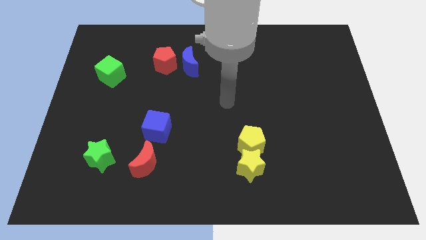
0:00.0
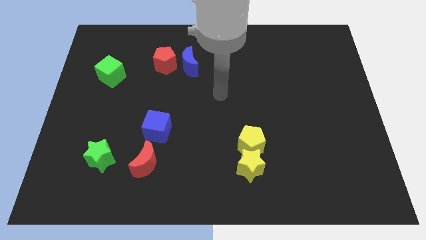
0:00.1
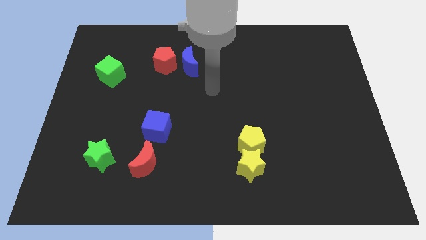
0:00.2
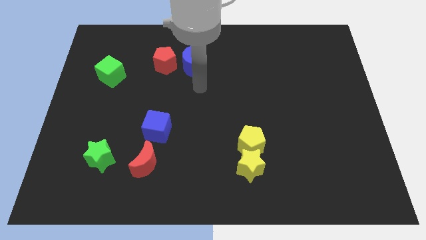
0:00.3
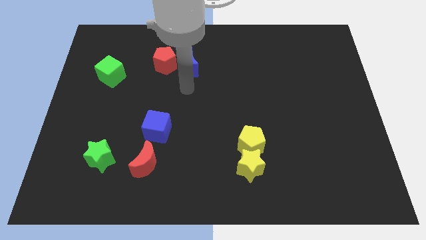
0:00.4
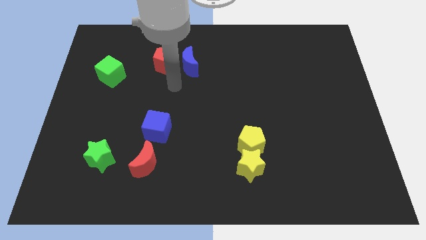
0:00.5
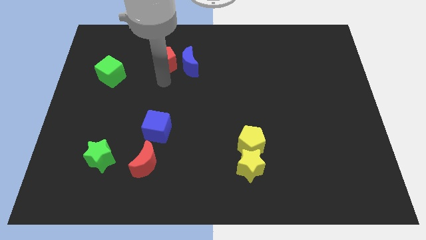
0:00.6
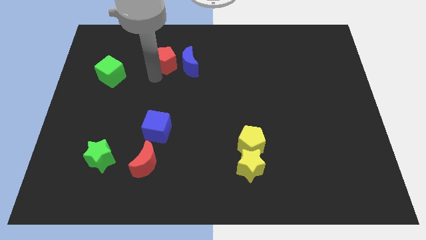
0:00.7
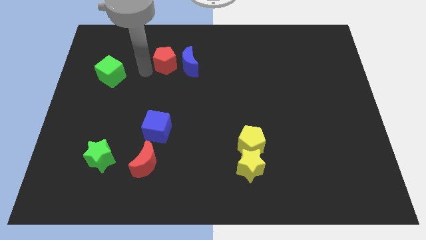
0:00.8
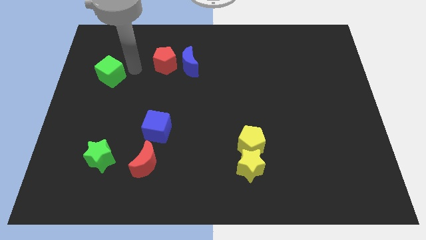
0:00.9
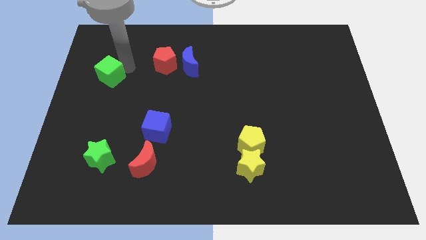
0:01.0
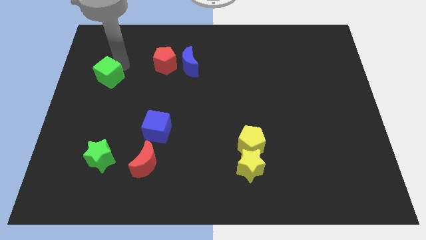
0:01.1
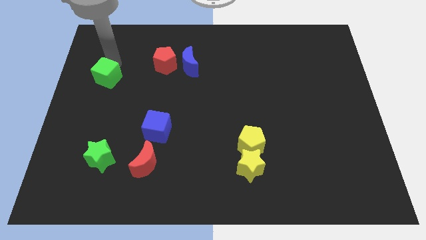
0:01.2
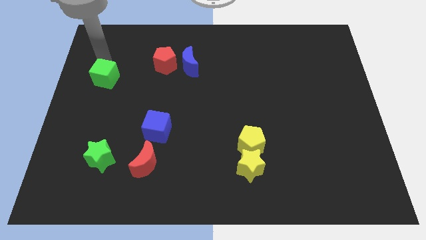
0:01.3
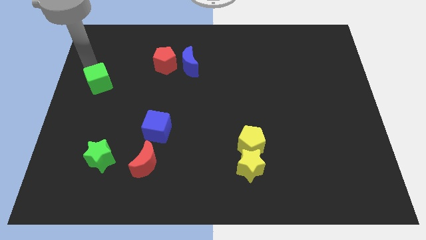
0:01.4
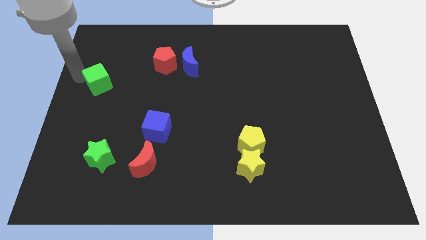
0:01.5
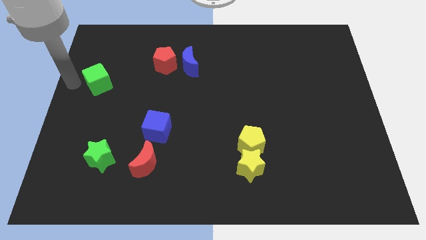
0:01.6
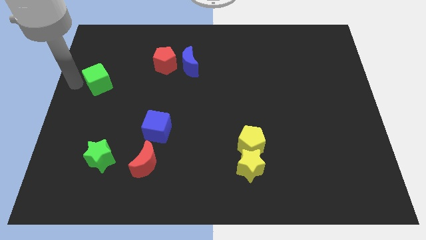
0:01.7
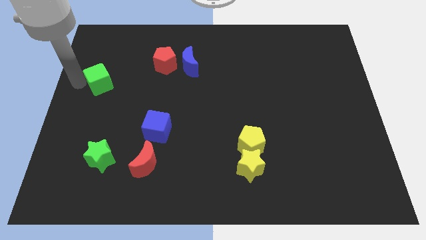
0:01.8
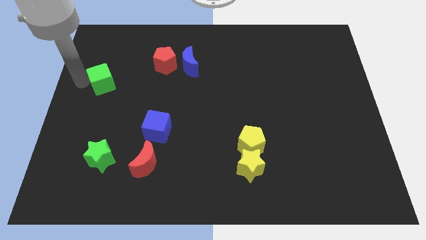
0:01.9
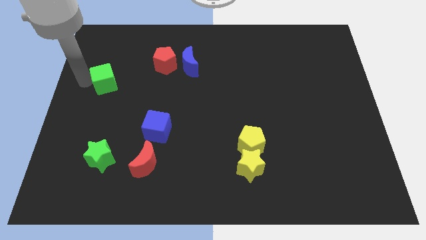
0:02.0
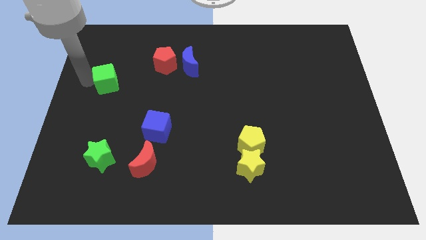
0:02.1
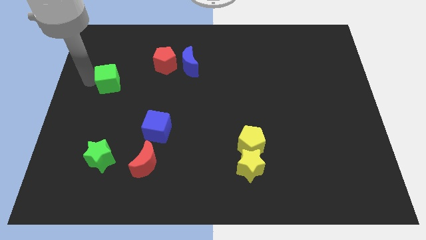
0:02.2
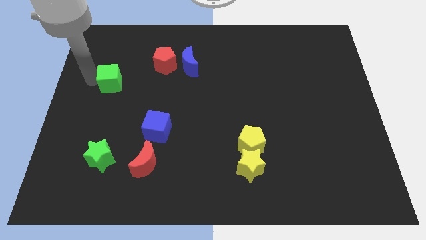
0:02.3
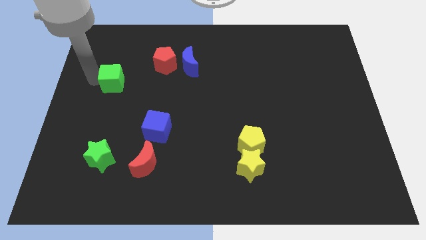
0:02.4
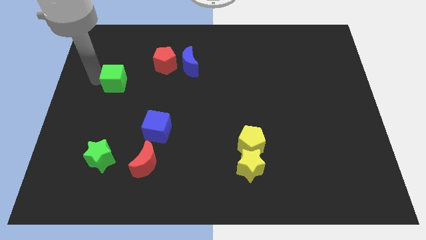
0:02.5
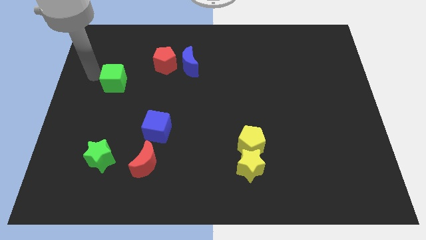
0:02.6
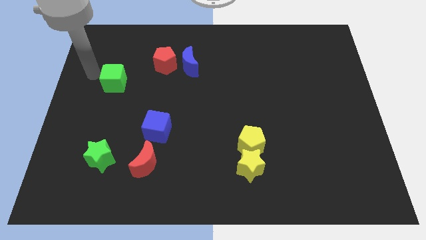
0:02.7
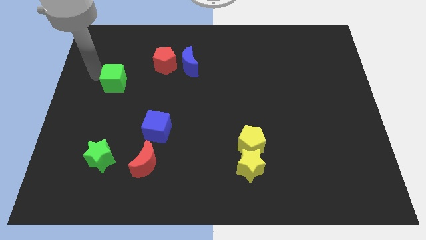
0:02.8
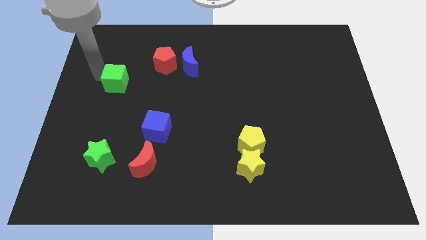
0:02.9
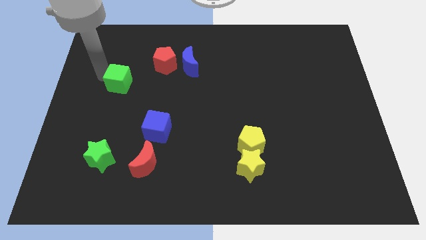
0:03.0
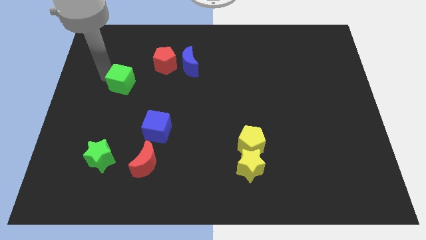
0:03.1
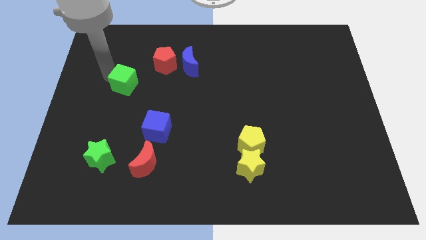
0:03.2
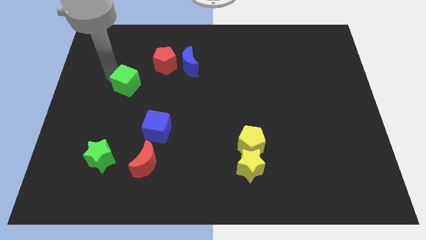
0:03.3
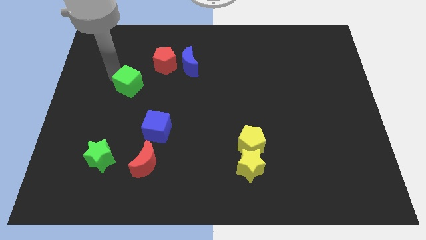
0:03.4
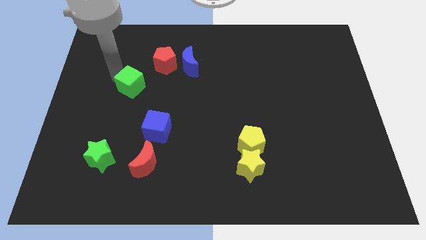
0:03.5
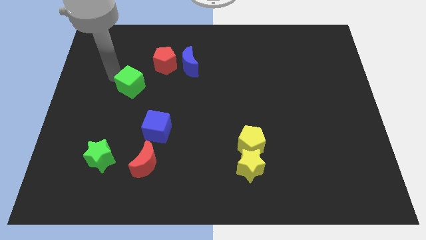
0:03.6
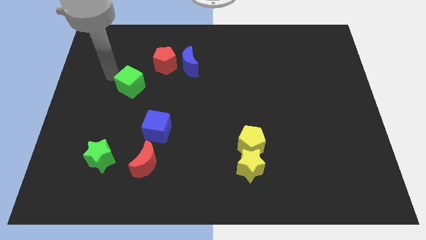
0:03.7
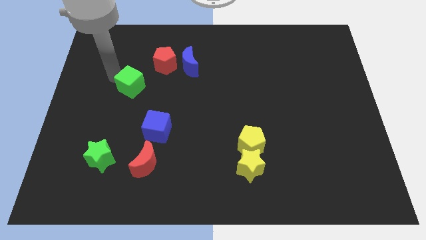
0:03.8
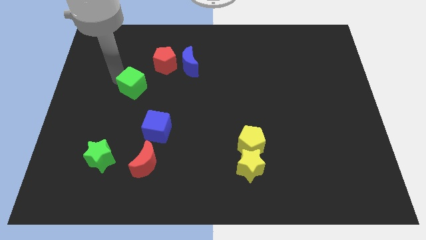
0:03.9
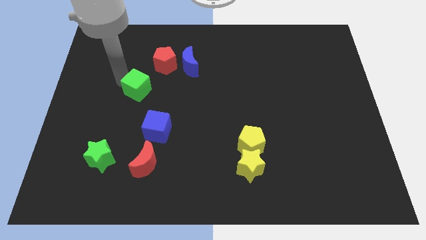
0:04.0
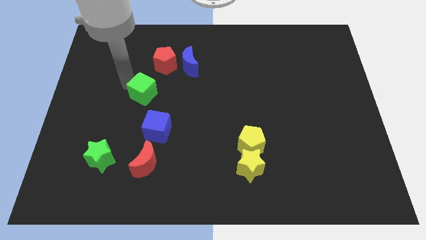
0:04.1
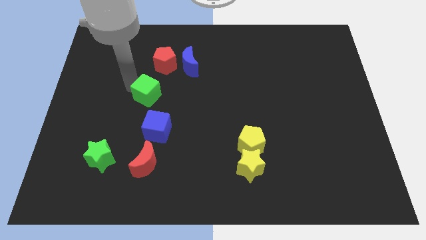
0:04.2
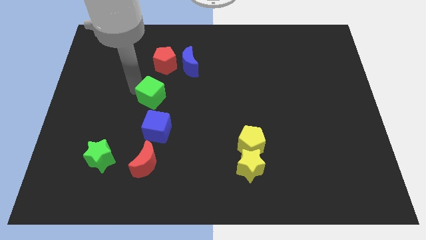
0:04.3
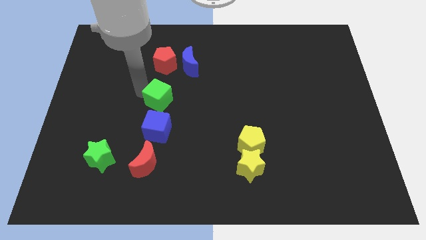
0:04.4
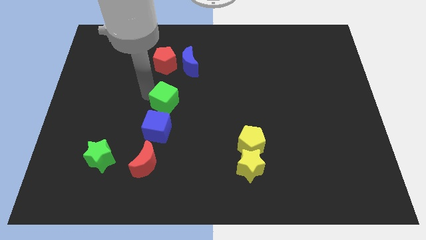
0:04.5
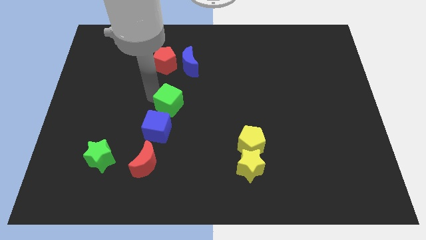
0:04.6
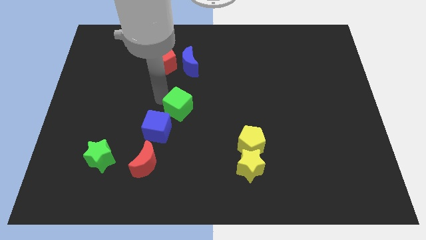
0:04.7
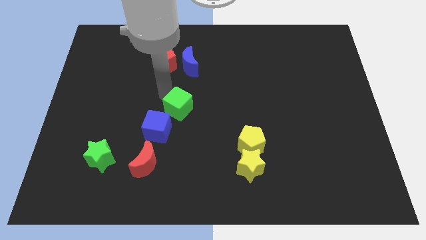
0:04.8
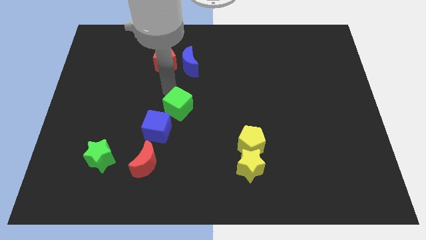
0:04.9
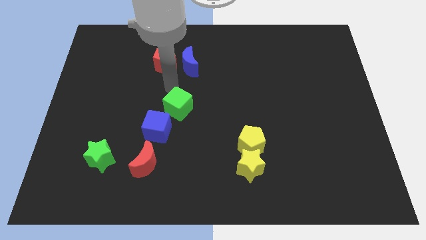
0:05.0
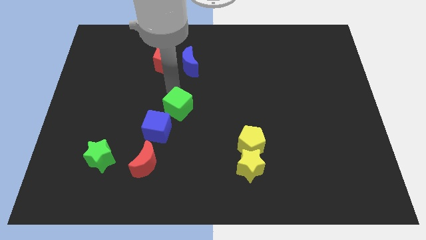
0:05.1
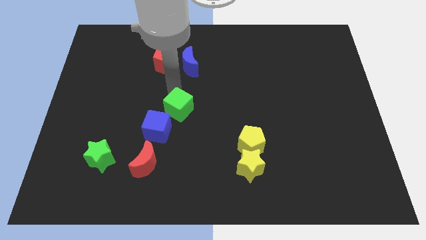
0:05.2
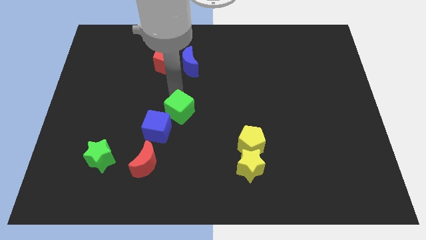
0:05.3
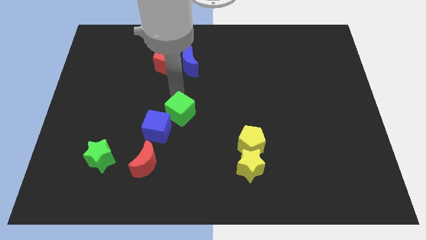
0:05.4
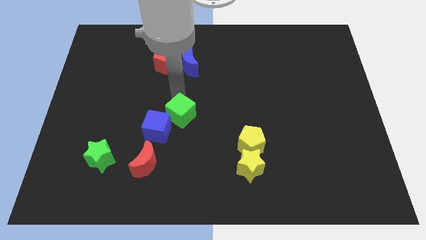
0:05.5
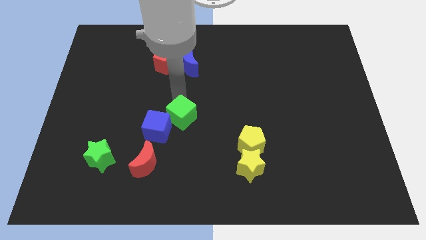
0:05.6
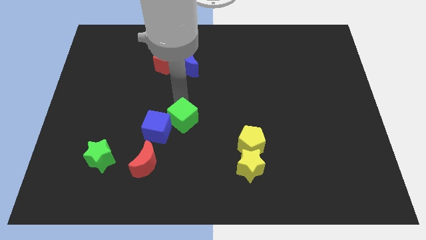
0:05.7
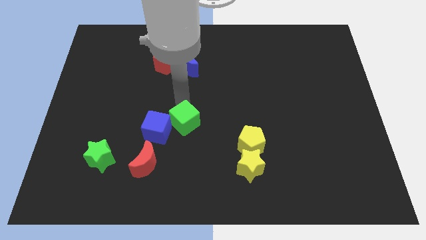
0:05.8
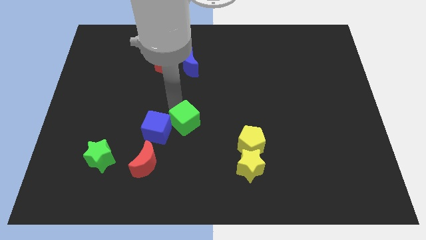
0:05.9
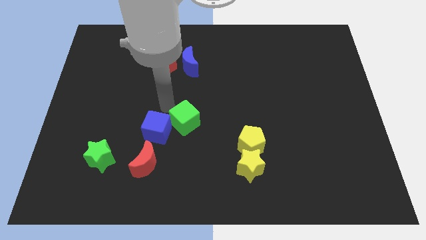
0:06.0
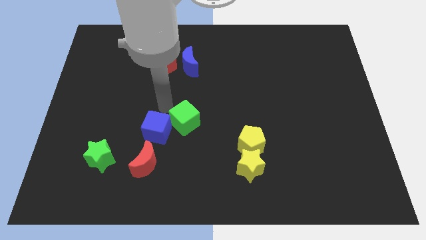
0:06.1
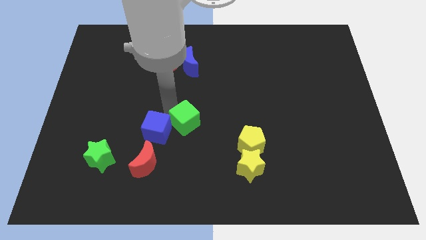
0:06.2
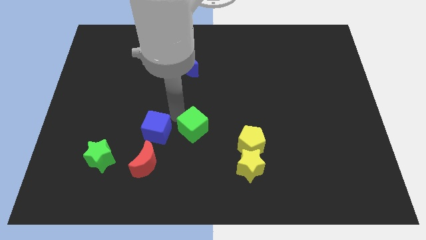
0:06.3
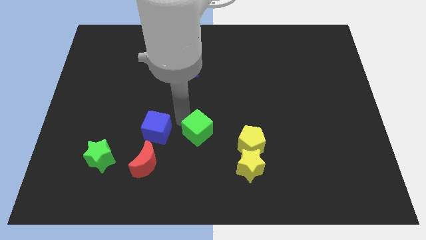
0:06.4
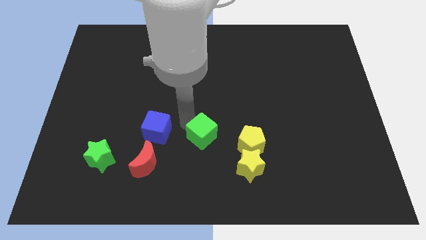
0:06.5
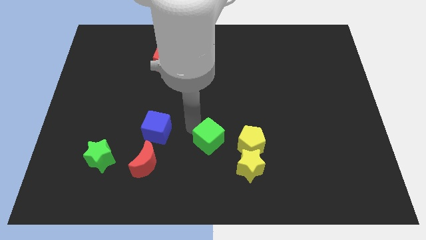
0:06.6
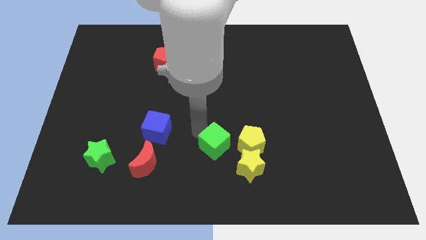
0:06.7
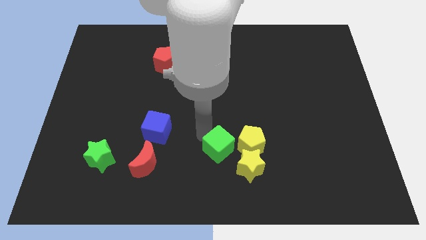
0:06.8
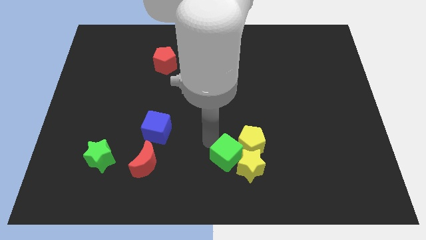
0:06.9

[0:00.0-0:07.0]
put the green cube towards the yellow star
